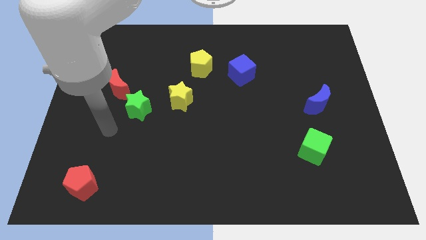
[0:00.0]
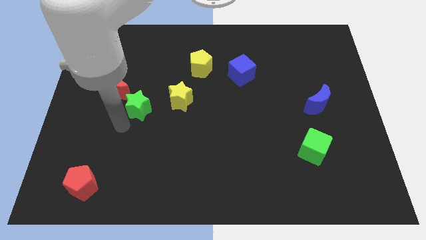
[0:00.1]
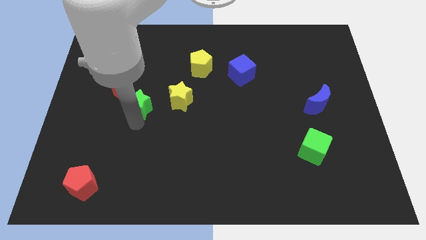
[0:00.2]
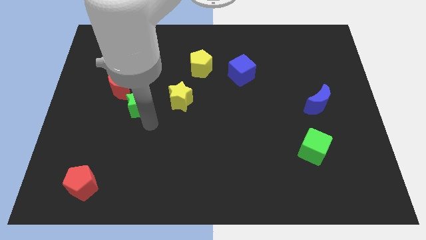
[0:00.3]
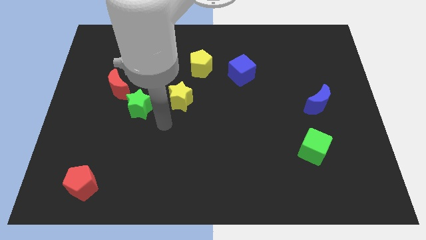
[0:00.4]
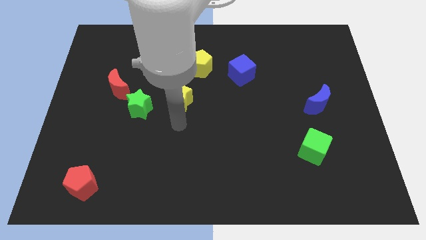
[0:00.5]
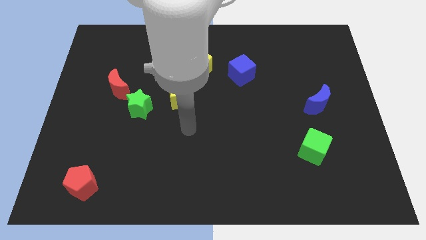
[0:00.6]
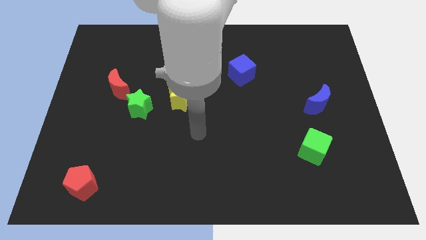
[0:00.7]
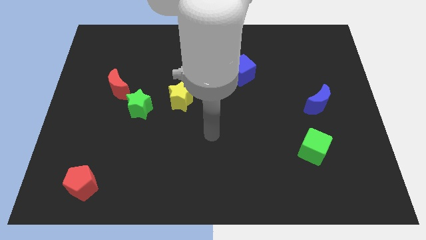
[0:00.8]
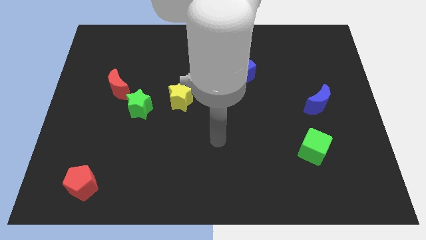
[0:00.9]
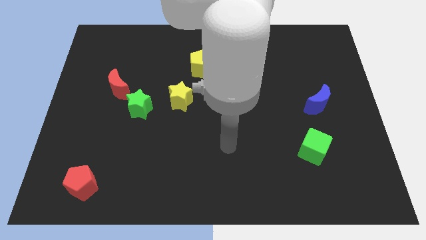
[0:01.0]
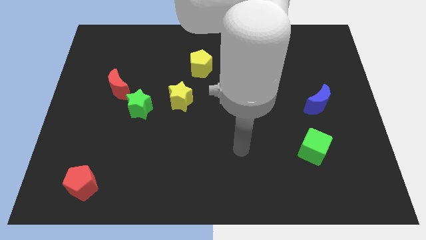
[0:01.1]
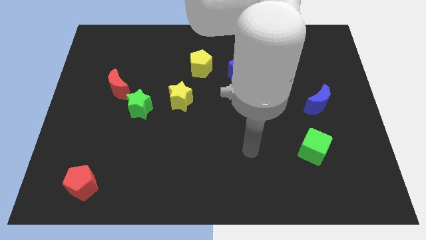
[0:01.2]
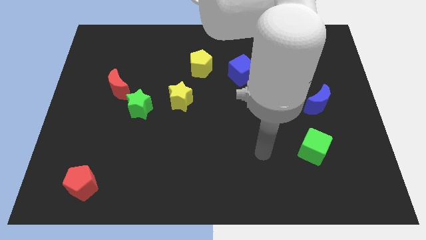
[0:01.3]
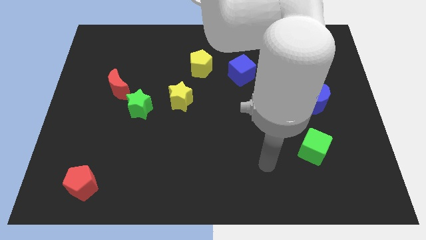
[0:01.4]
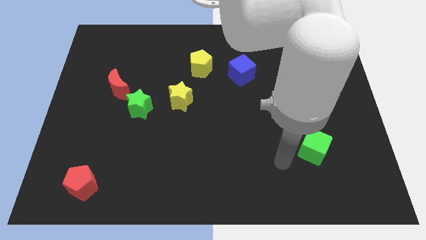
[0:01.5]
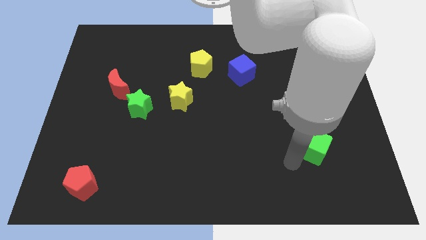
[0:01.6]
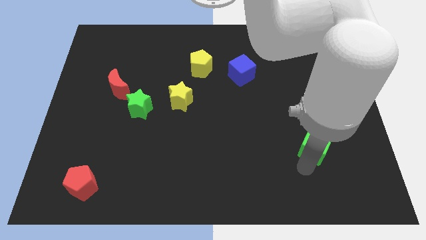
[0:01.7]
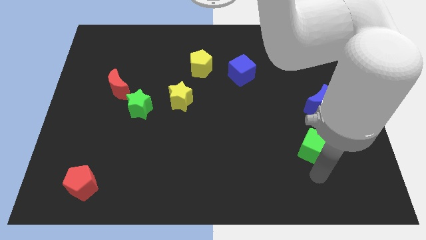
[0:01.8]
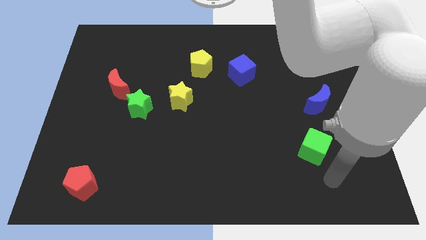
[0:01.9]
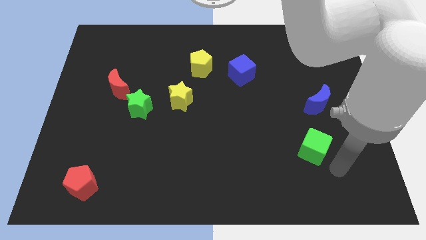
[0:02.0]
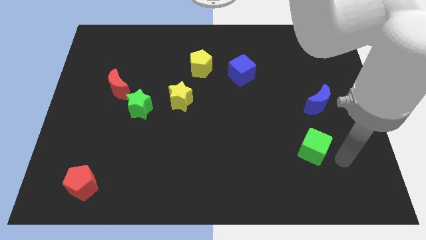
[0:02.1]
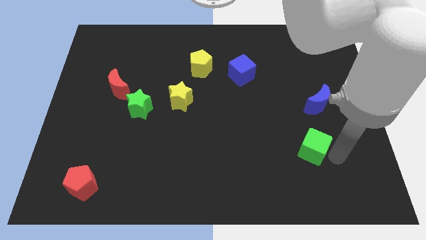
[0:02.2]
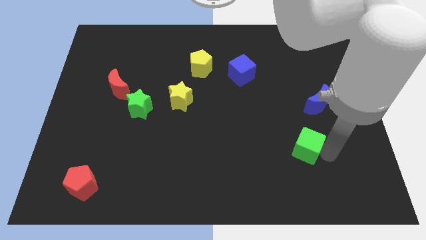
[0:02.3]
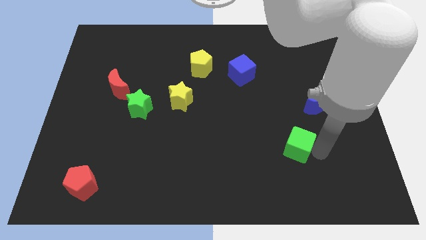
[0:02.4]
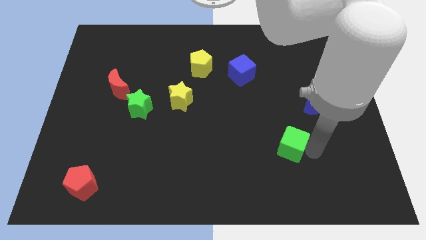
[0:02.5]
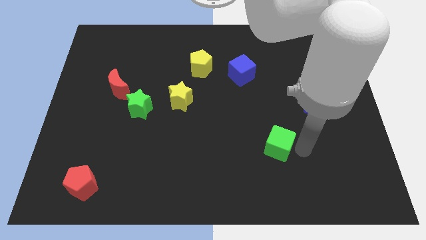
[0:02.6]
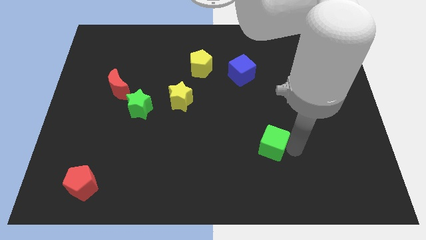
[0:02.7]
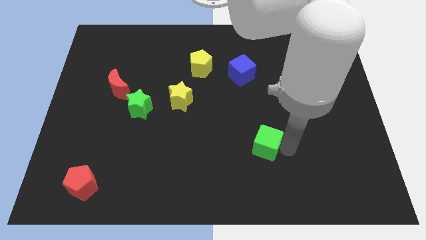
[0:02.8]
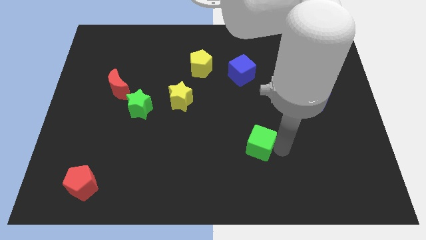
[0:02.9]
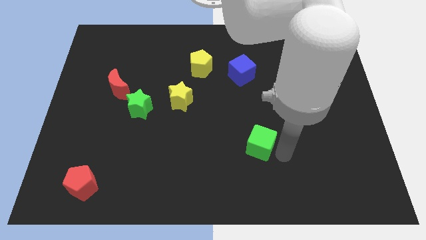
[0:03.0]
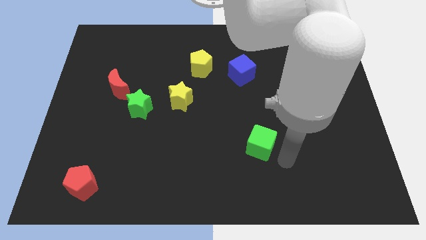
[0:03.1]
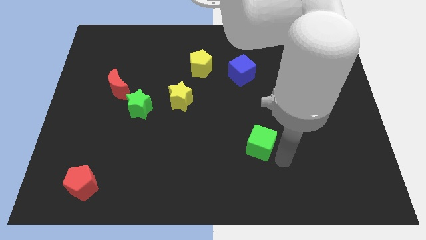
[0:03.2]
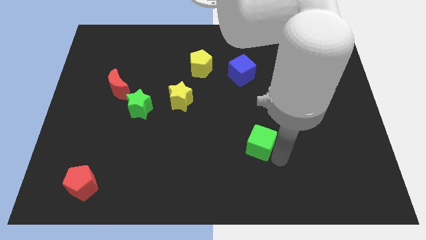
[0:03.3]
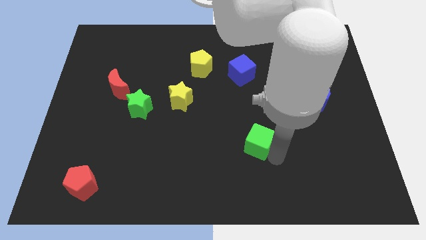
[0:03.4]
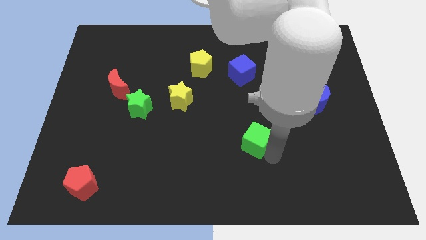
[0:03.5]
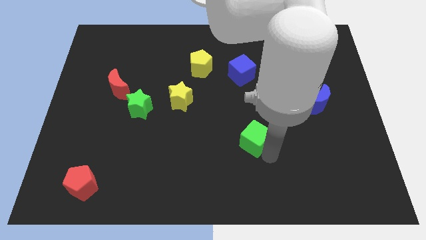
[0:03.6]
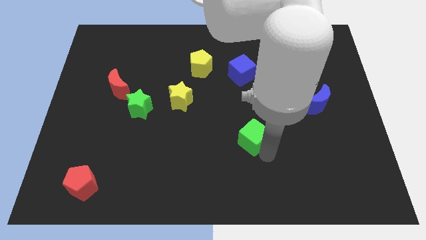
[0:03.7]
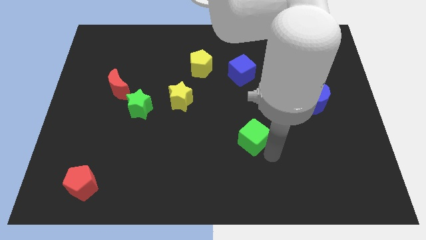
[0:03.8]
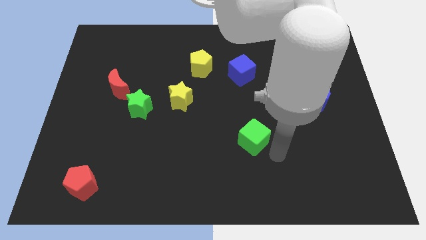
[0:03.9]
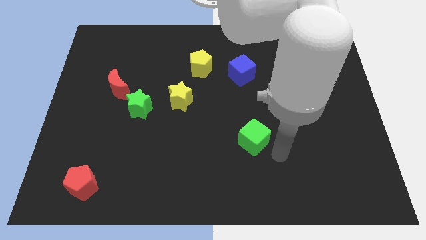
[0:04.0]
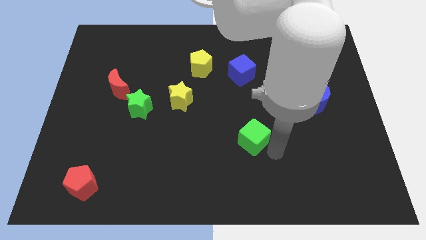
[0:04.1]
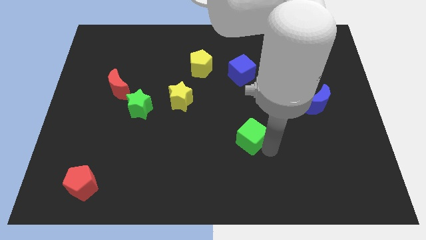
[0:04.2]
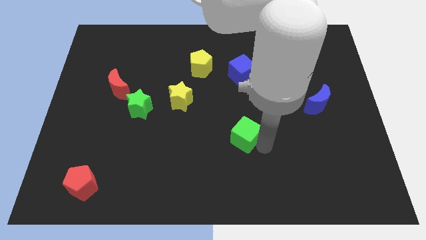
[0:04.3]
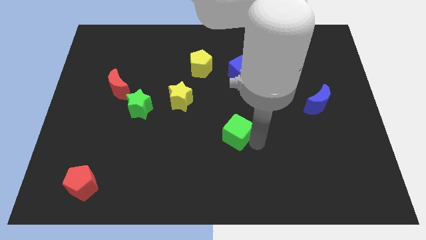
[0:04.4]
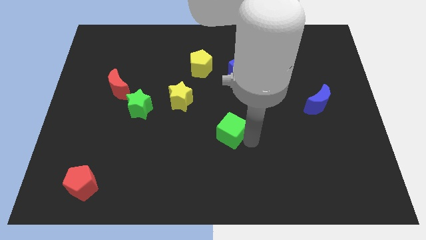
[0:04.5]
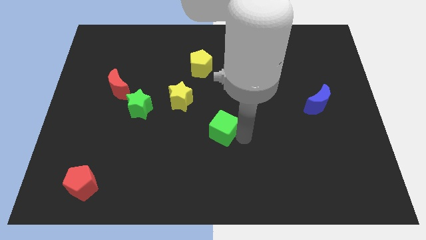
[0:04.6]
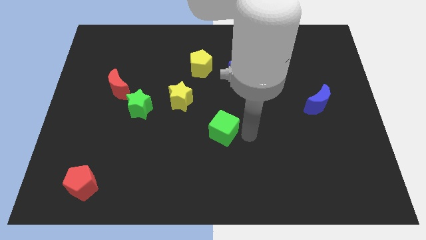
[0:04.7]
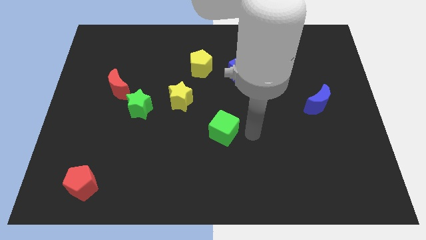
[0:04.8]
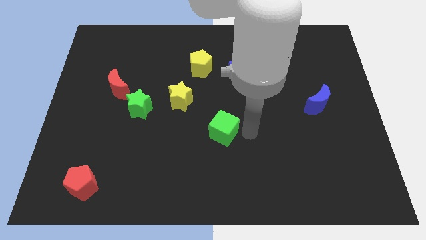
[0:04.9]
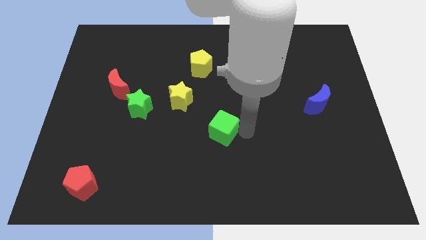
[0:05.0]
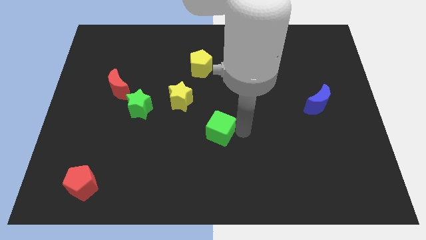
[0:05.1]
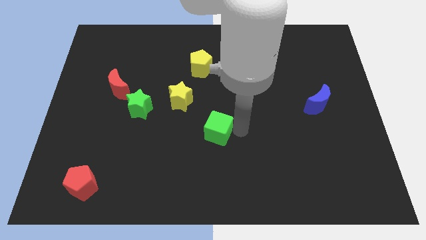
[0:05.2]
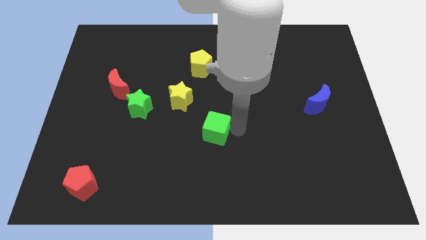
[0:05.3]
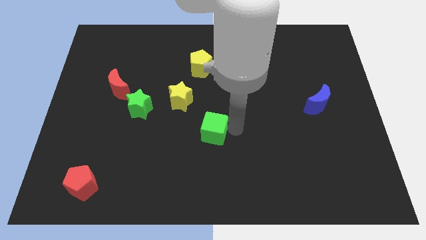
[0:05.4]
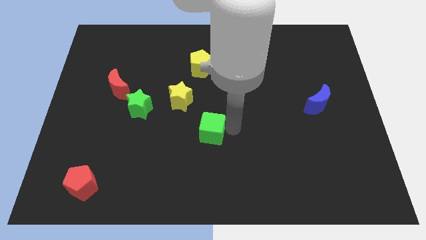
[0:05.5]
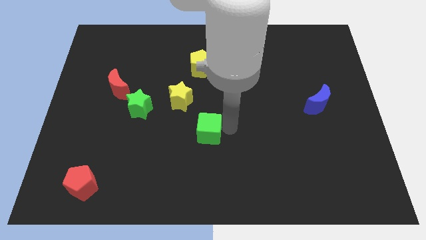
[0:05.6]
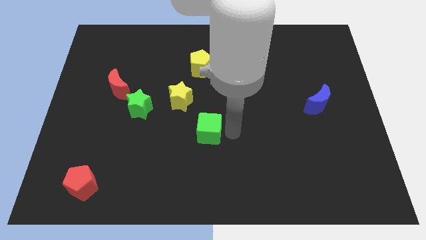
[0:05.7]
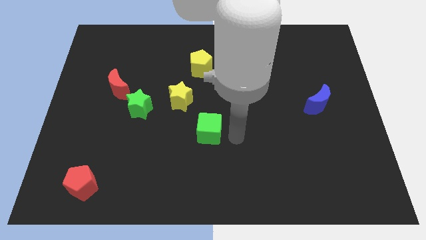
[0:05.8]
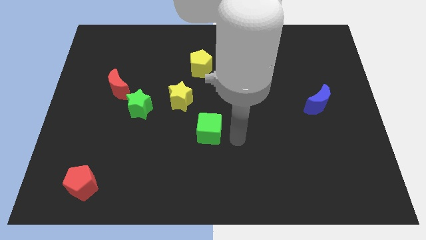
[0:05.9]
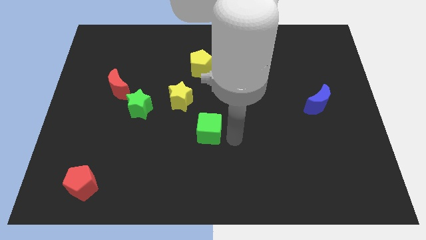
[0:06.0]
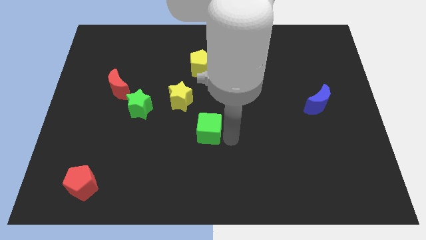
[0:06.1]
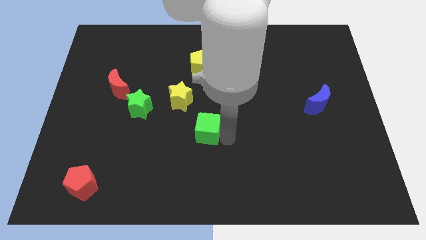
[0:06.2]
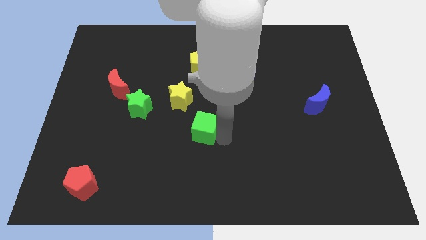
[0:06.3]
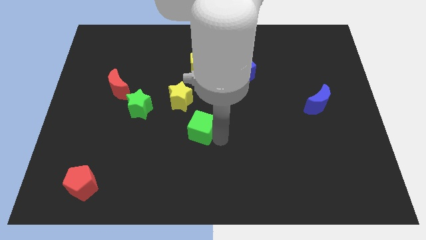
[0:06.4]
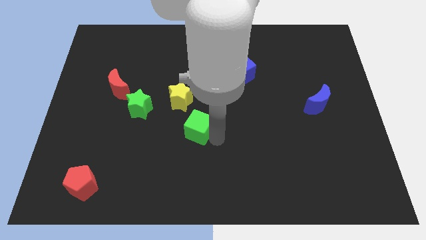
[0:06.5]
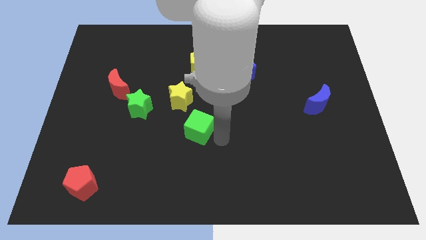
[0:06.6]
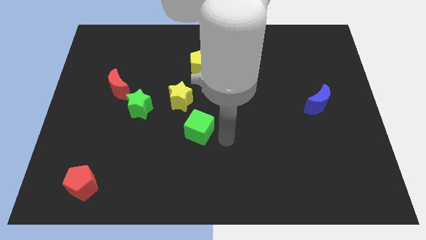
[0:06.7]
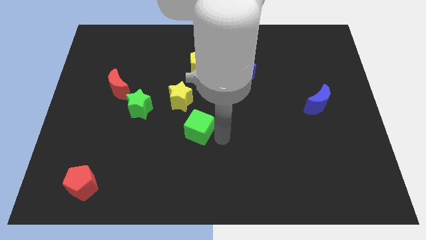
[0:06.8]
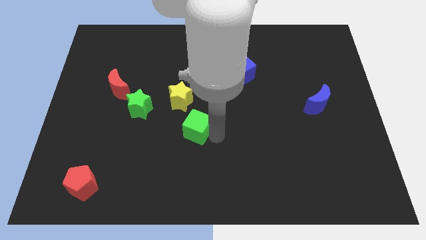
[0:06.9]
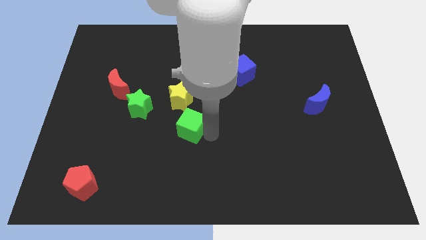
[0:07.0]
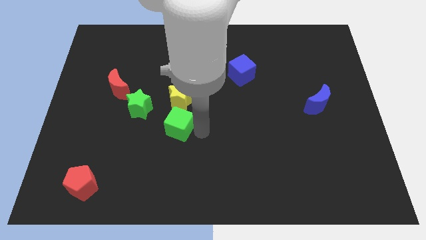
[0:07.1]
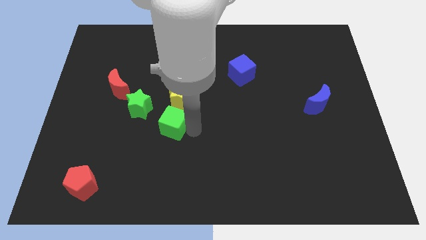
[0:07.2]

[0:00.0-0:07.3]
push the green cube diagonally down and to the left of the yellow star
